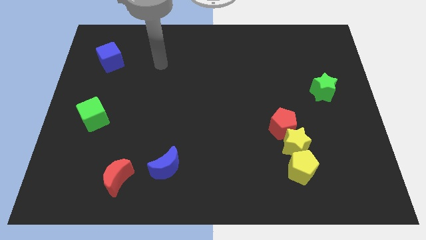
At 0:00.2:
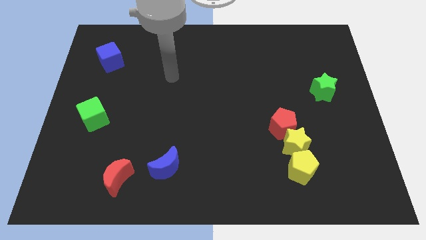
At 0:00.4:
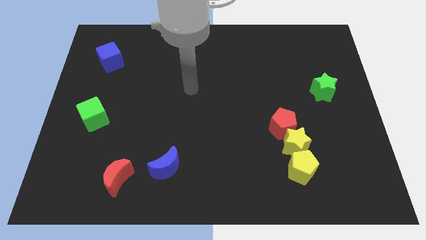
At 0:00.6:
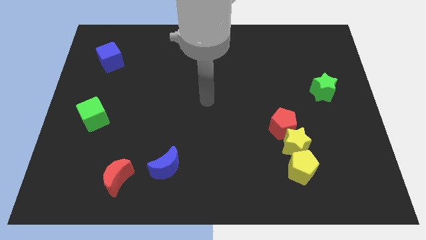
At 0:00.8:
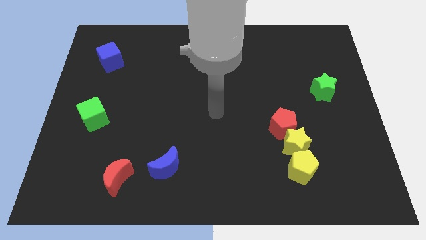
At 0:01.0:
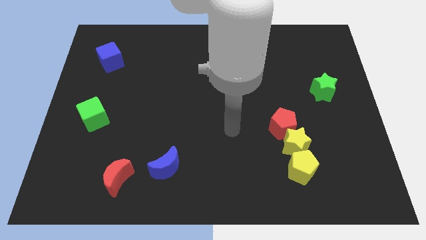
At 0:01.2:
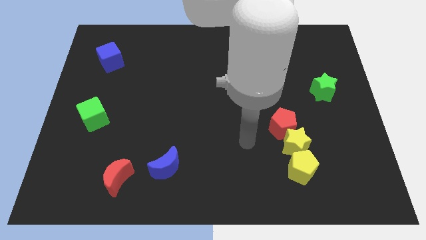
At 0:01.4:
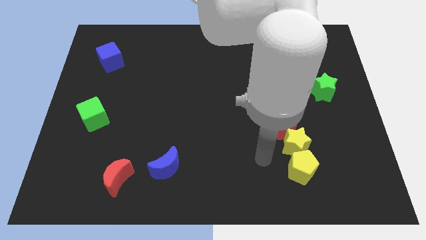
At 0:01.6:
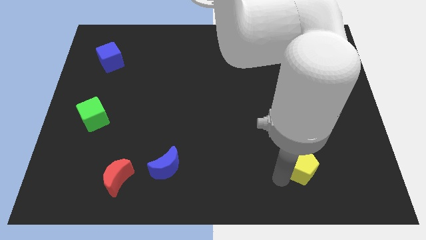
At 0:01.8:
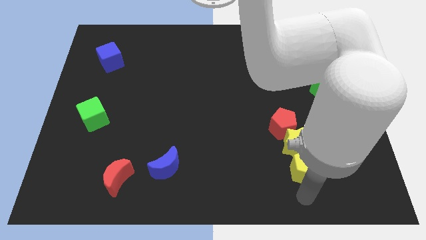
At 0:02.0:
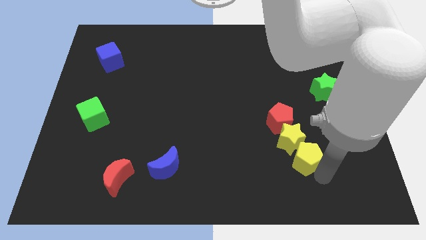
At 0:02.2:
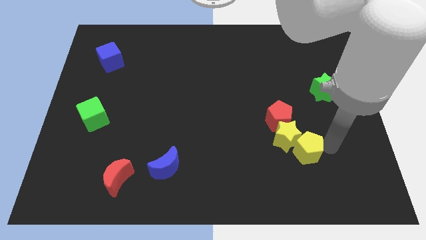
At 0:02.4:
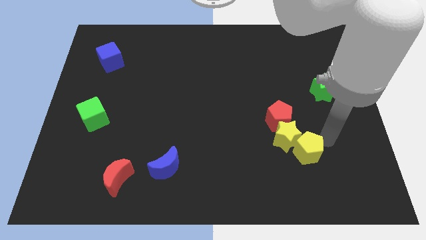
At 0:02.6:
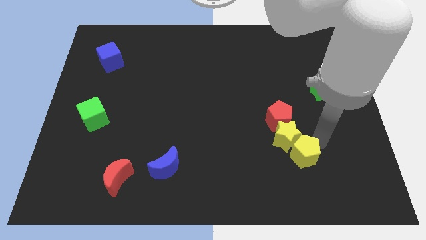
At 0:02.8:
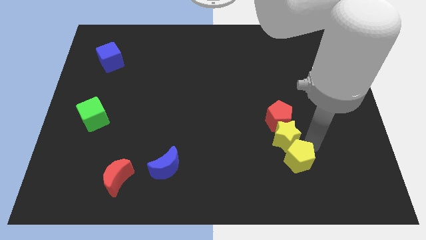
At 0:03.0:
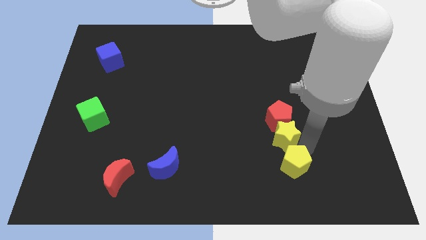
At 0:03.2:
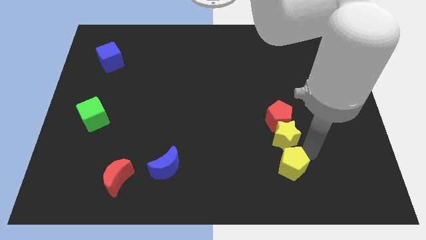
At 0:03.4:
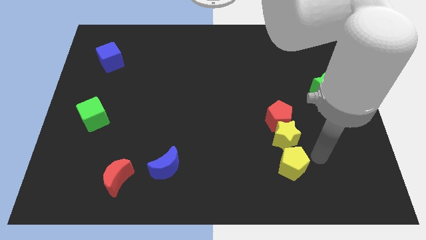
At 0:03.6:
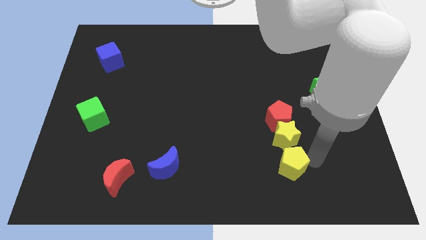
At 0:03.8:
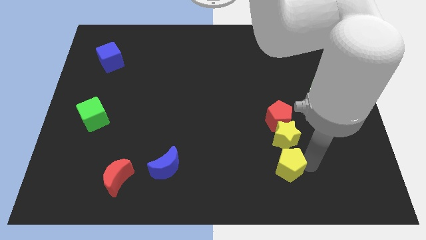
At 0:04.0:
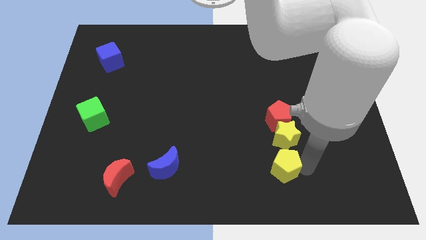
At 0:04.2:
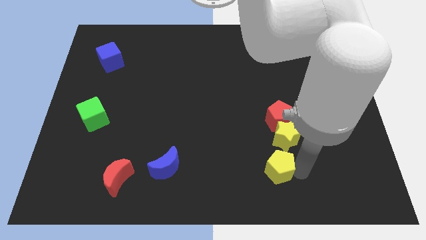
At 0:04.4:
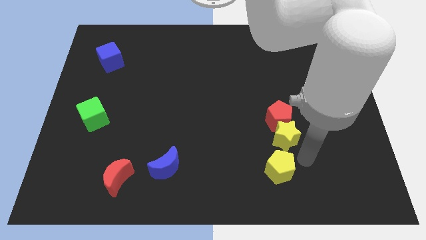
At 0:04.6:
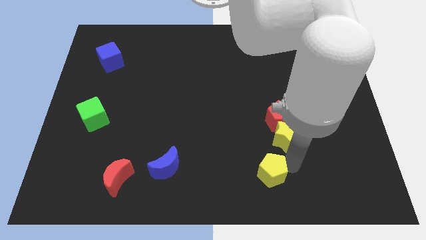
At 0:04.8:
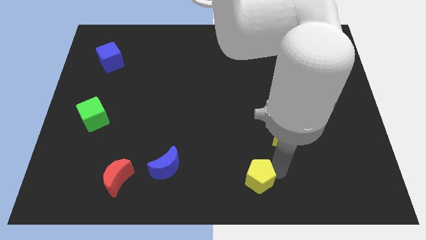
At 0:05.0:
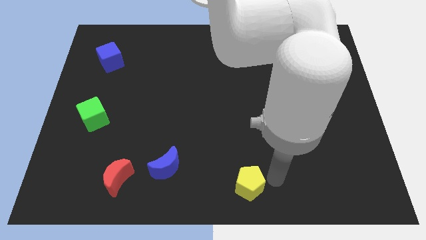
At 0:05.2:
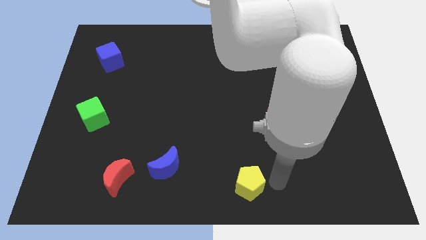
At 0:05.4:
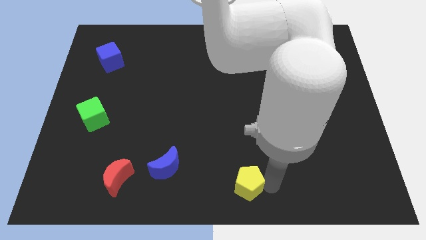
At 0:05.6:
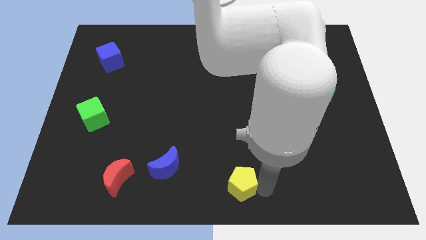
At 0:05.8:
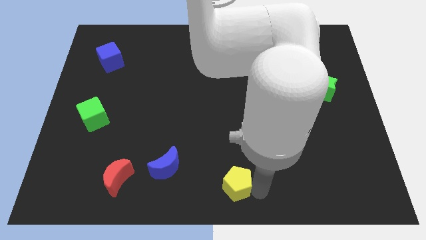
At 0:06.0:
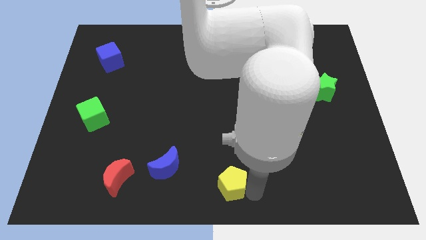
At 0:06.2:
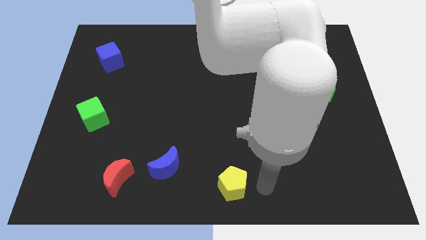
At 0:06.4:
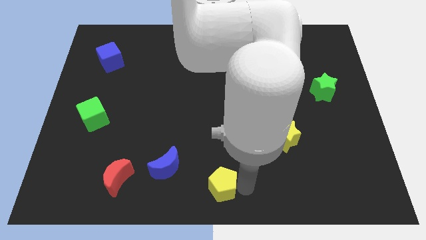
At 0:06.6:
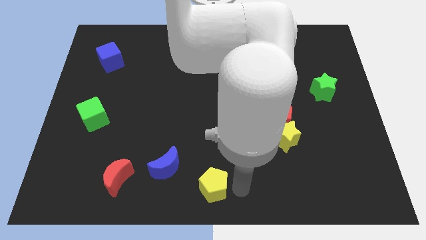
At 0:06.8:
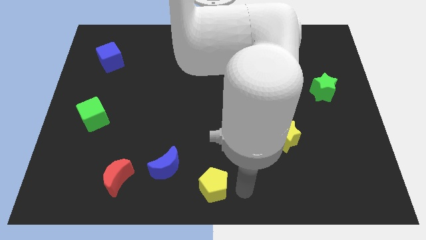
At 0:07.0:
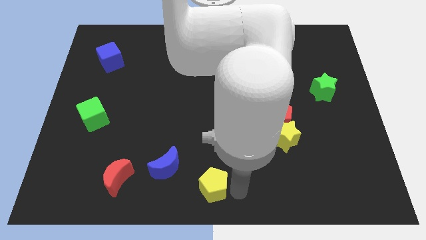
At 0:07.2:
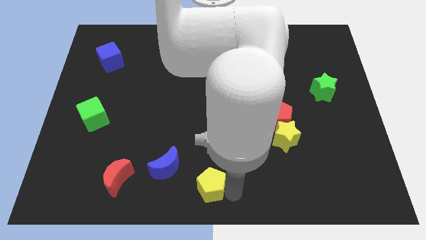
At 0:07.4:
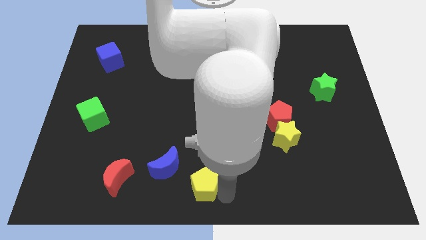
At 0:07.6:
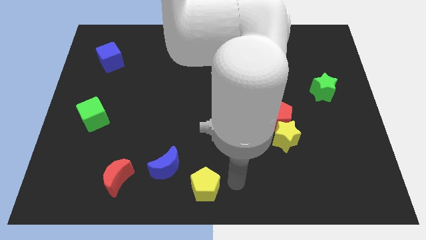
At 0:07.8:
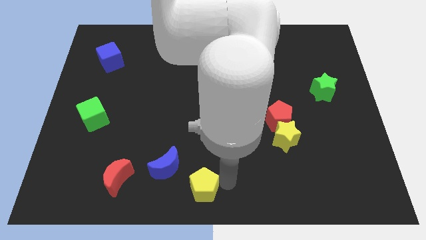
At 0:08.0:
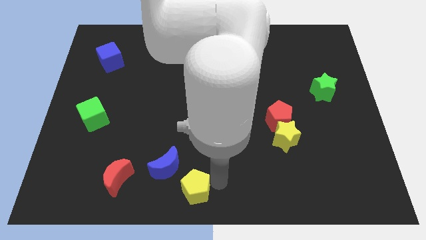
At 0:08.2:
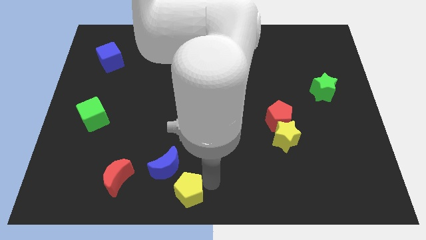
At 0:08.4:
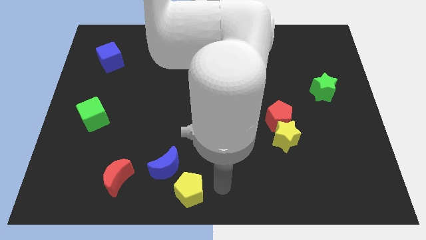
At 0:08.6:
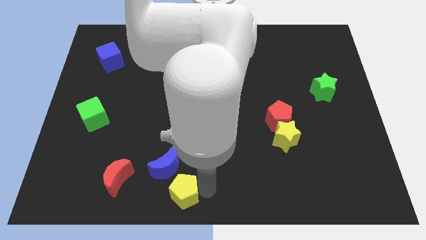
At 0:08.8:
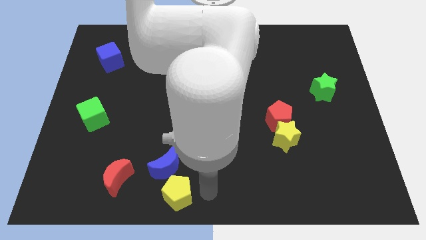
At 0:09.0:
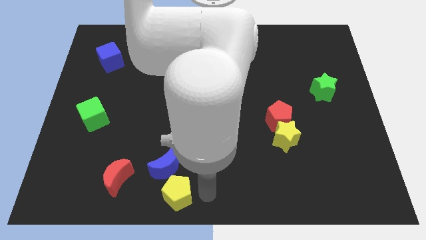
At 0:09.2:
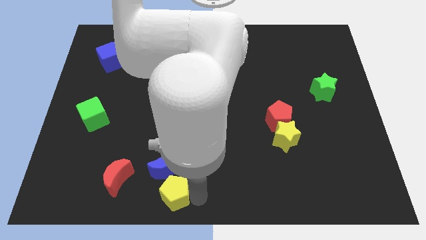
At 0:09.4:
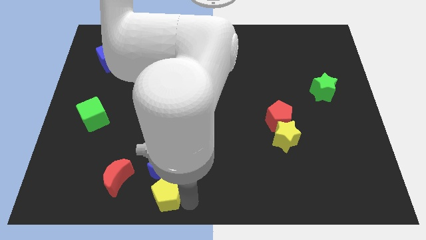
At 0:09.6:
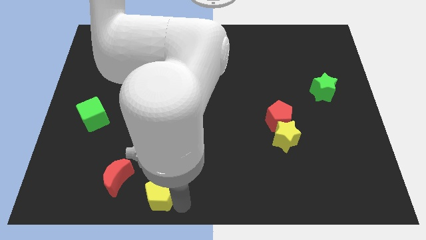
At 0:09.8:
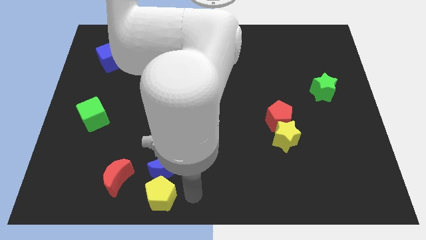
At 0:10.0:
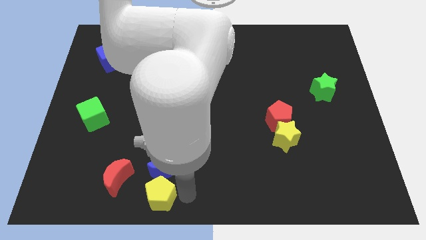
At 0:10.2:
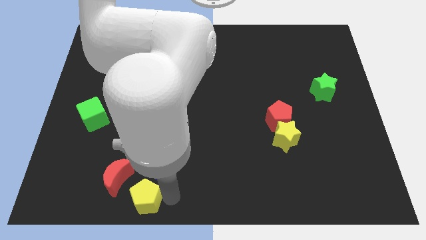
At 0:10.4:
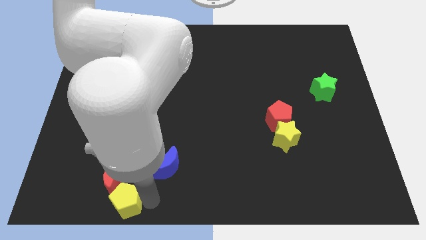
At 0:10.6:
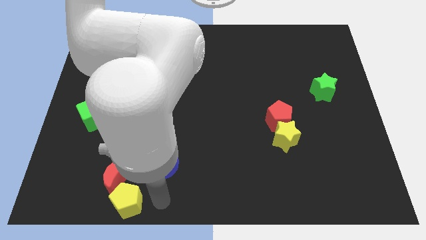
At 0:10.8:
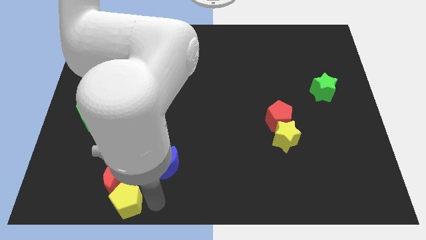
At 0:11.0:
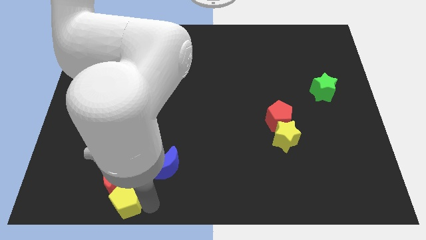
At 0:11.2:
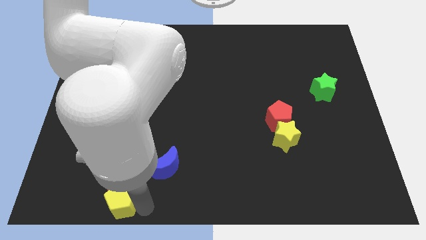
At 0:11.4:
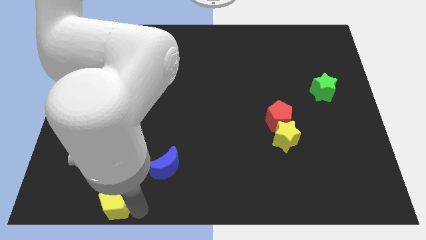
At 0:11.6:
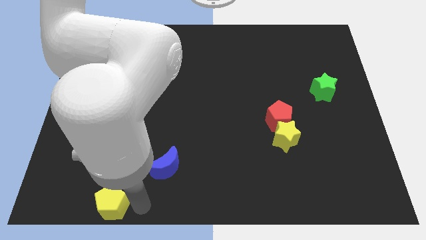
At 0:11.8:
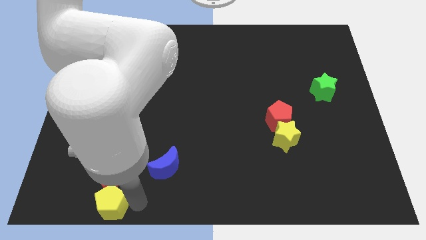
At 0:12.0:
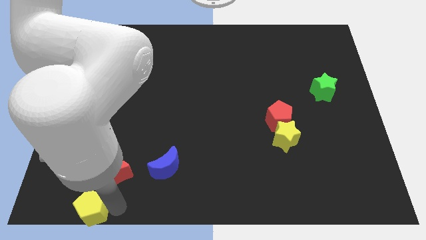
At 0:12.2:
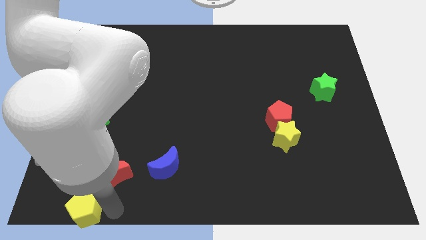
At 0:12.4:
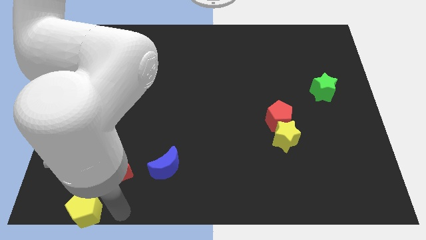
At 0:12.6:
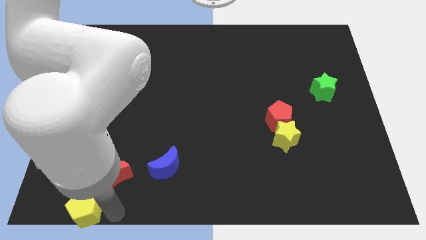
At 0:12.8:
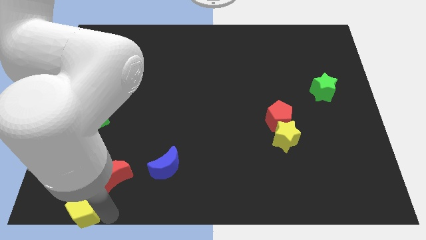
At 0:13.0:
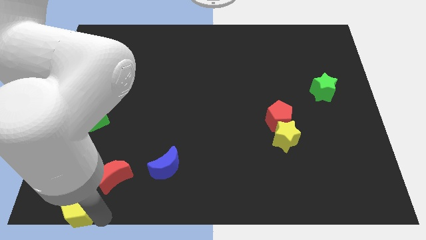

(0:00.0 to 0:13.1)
slide the yellow pentagon to the bottom left
